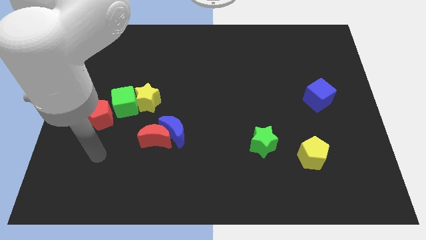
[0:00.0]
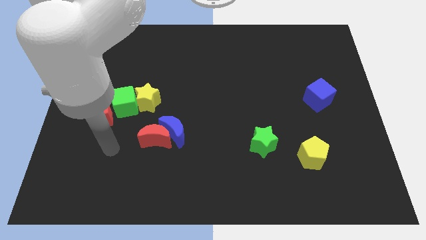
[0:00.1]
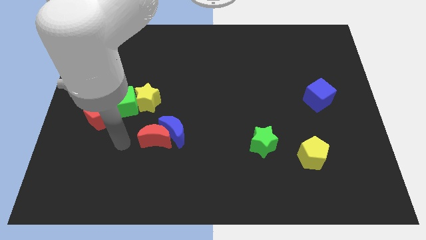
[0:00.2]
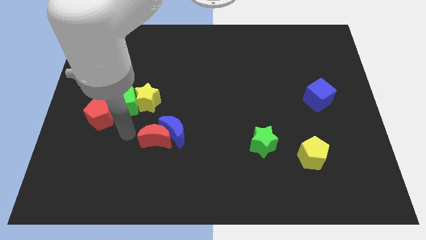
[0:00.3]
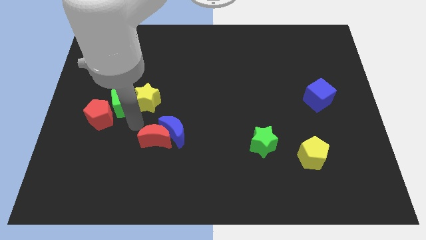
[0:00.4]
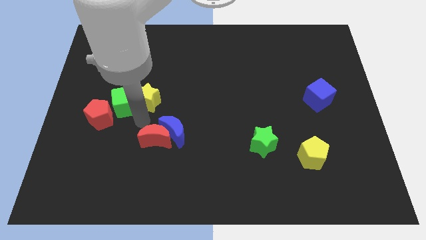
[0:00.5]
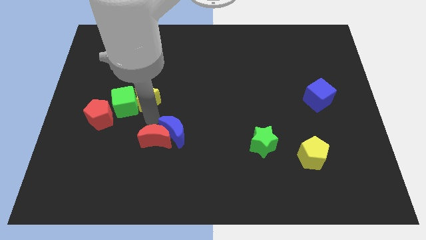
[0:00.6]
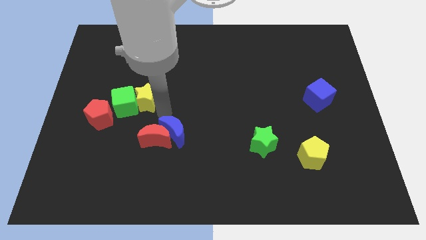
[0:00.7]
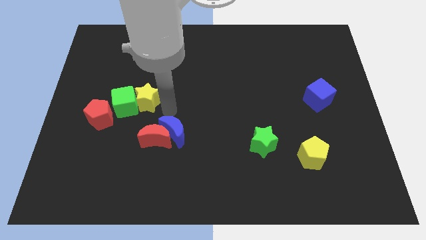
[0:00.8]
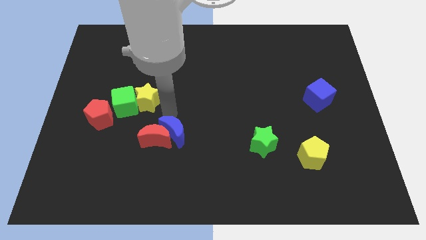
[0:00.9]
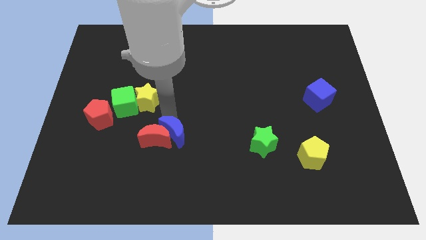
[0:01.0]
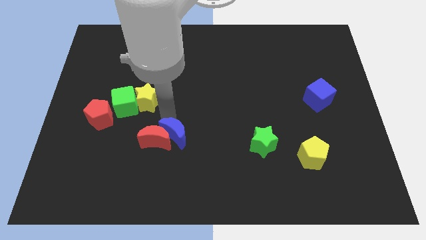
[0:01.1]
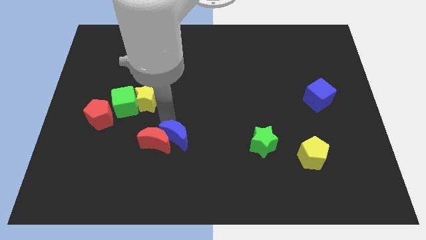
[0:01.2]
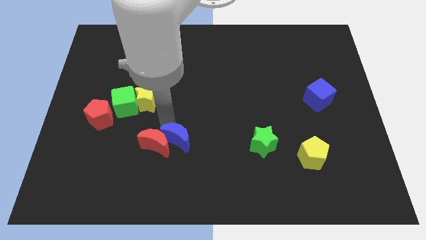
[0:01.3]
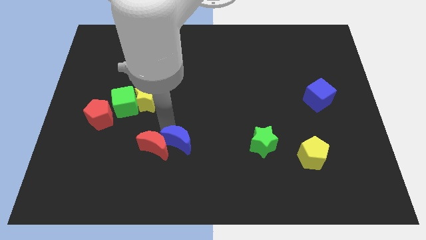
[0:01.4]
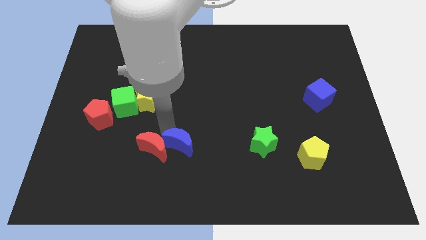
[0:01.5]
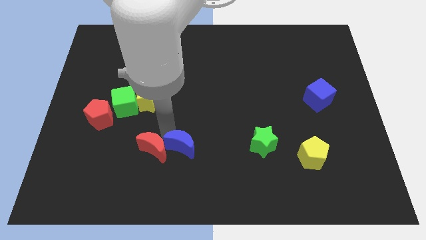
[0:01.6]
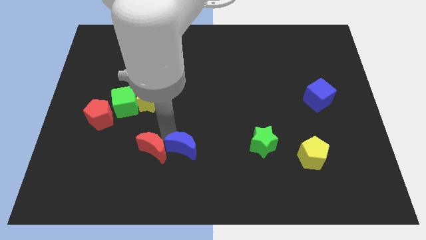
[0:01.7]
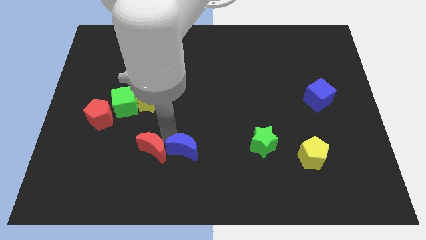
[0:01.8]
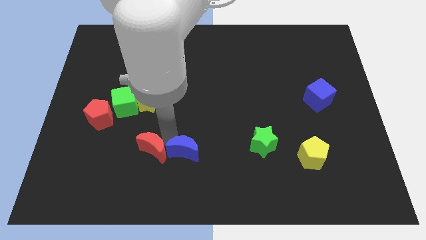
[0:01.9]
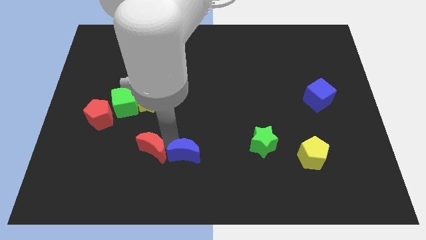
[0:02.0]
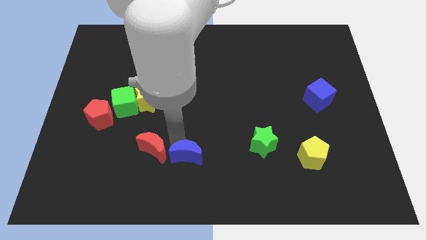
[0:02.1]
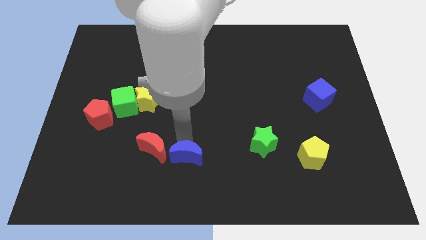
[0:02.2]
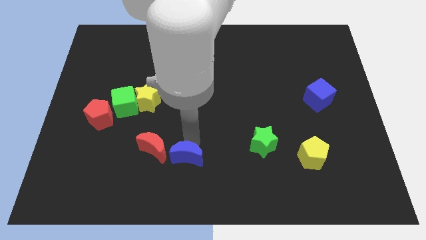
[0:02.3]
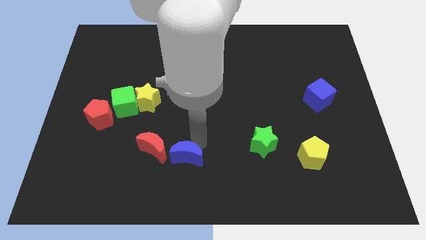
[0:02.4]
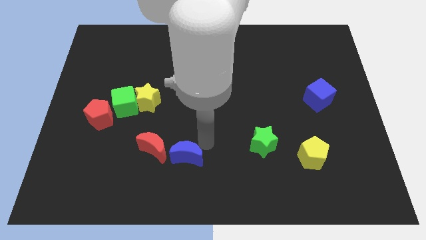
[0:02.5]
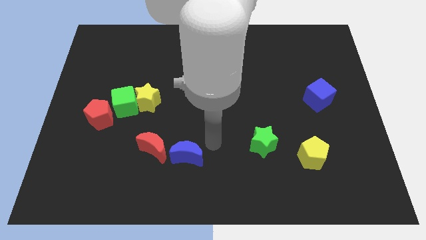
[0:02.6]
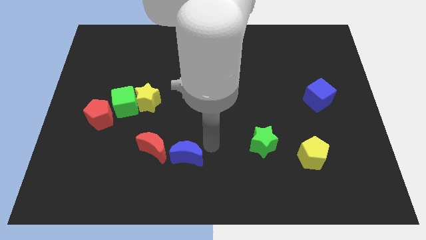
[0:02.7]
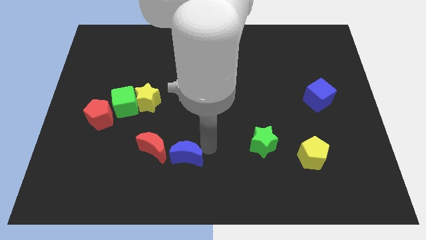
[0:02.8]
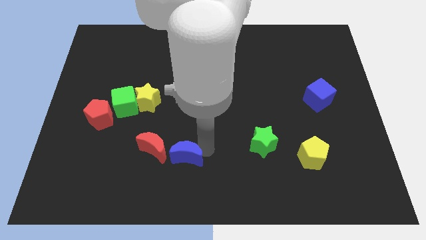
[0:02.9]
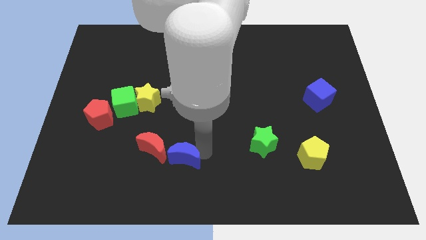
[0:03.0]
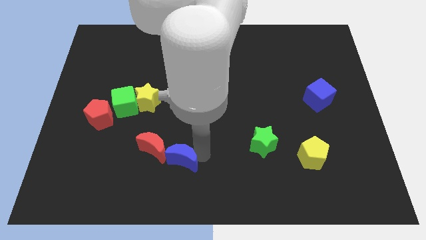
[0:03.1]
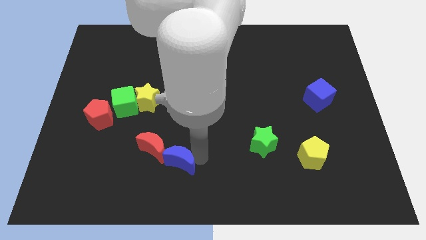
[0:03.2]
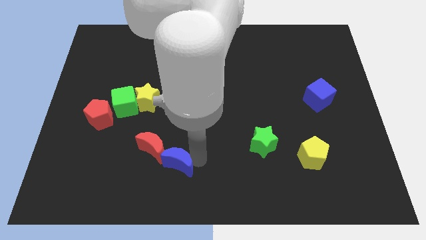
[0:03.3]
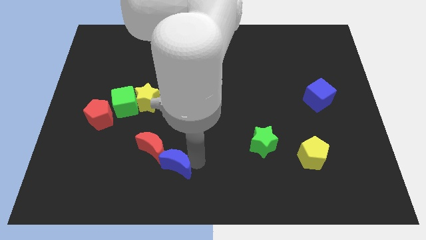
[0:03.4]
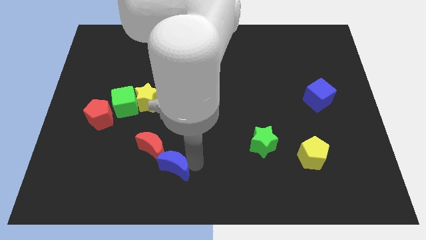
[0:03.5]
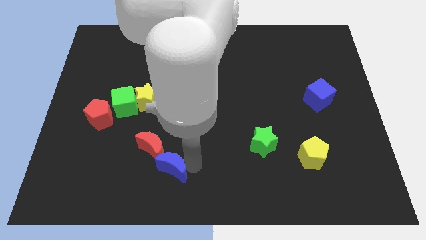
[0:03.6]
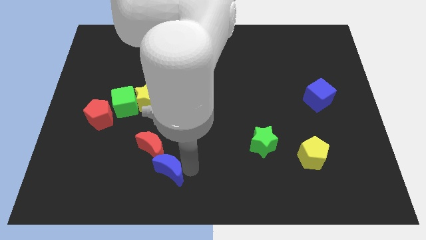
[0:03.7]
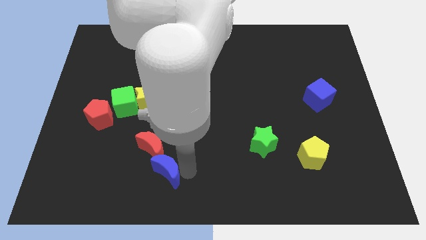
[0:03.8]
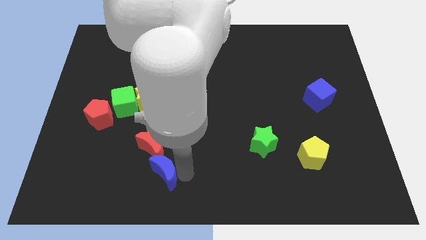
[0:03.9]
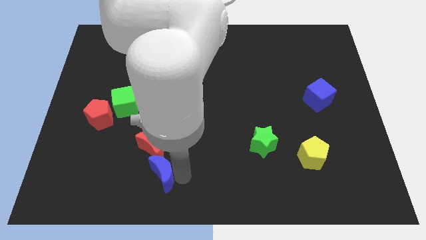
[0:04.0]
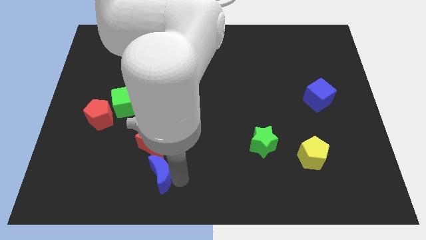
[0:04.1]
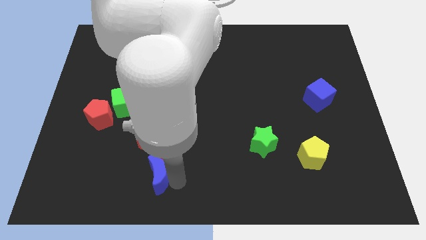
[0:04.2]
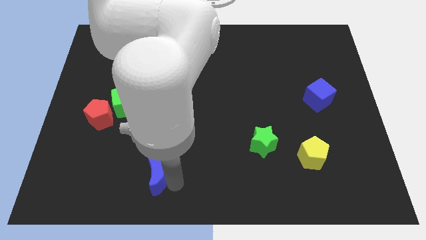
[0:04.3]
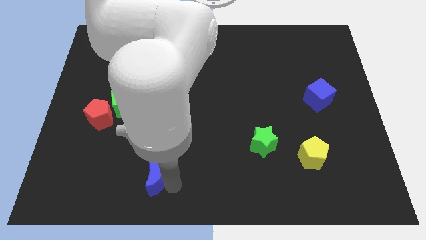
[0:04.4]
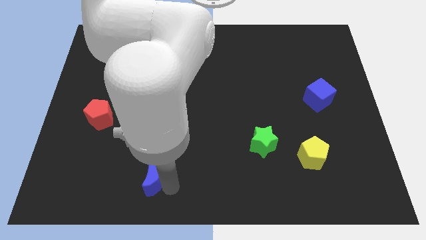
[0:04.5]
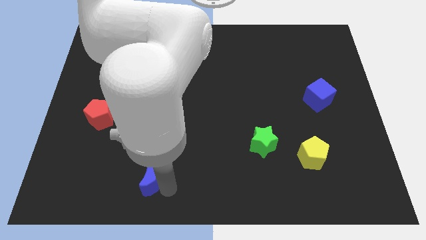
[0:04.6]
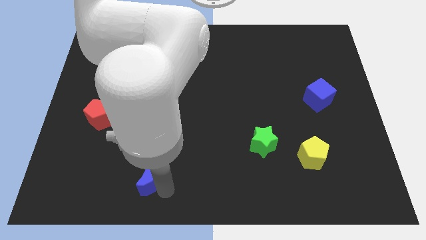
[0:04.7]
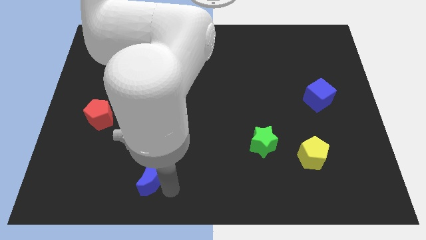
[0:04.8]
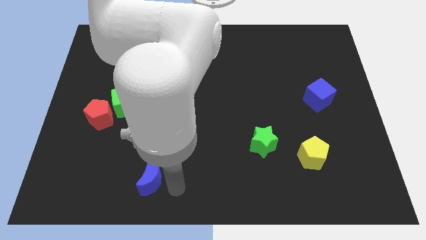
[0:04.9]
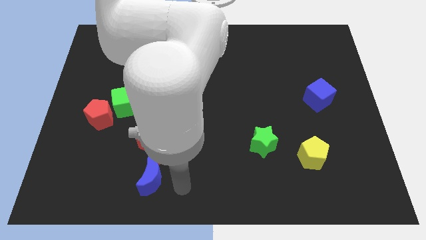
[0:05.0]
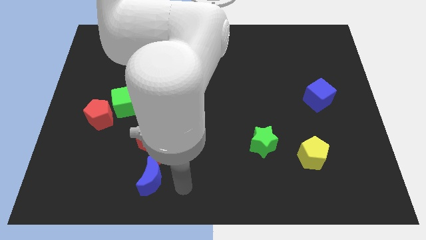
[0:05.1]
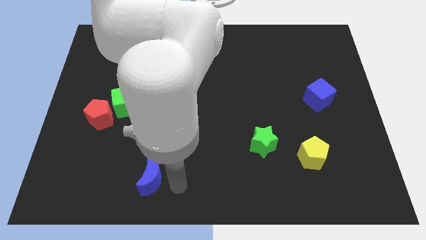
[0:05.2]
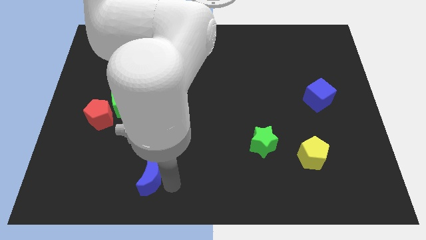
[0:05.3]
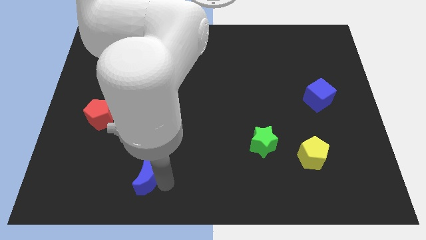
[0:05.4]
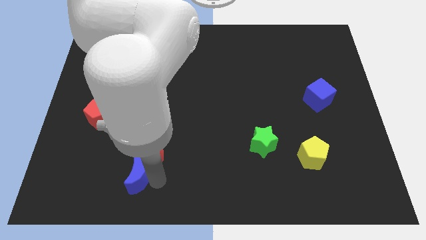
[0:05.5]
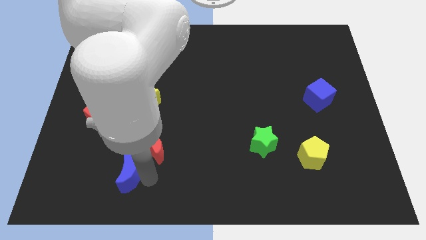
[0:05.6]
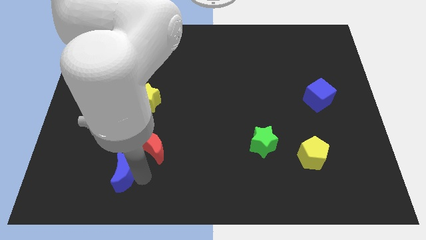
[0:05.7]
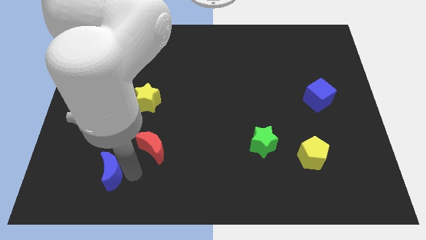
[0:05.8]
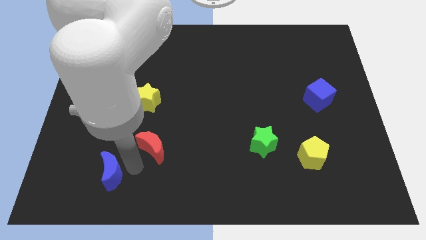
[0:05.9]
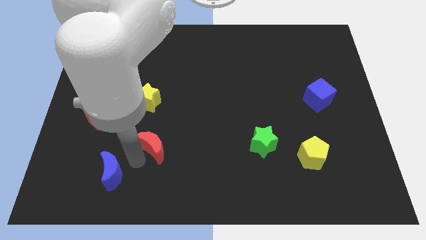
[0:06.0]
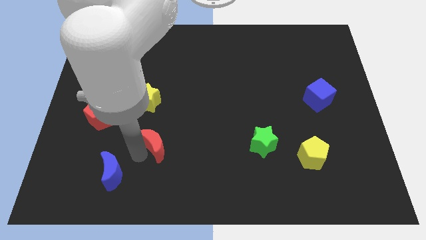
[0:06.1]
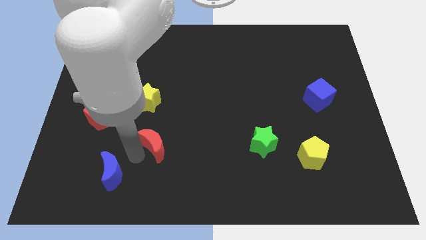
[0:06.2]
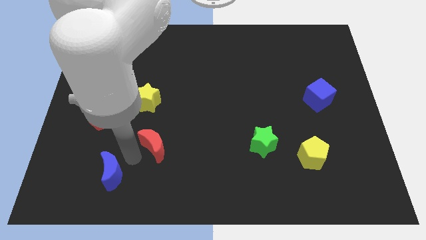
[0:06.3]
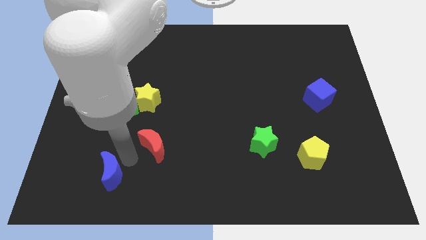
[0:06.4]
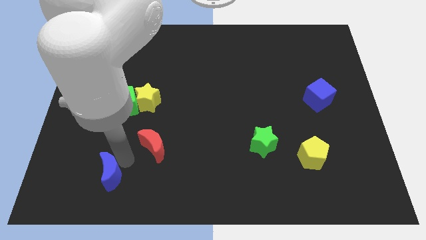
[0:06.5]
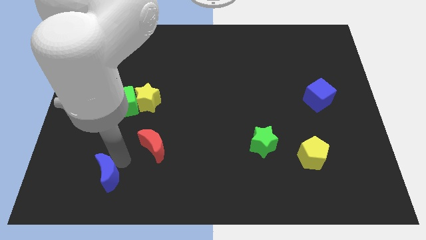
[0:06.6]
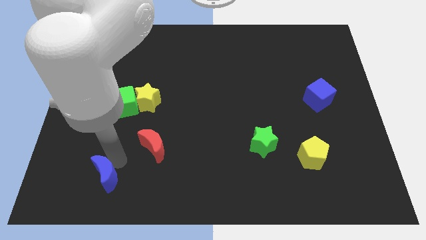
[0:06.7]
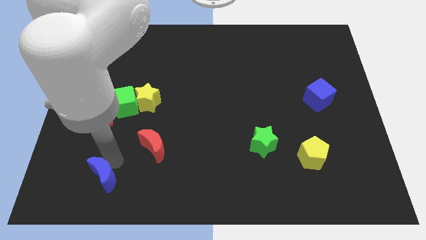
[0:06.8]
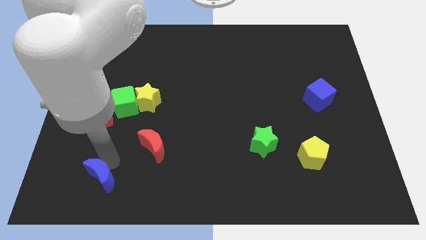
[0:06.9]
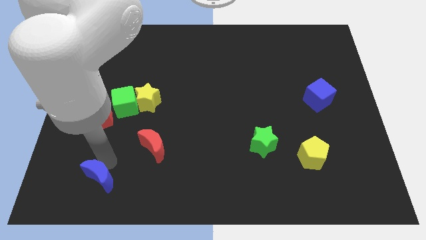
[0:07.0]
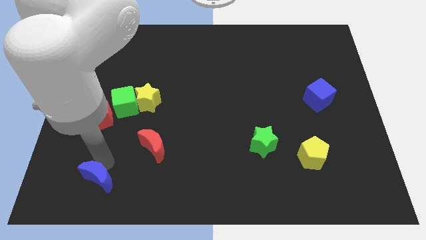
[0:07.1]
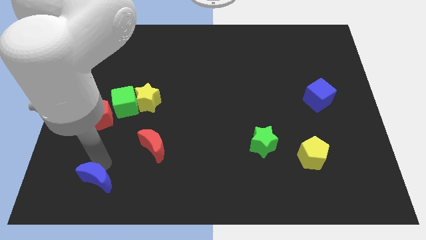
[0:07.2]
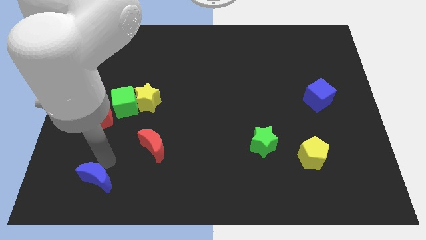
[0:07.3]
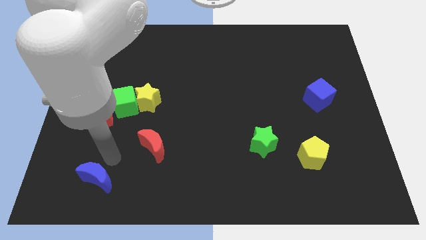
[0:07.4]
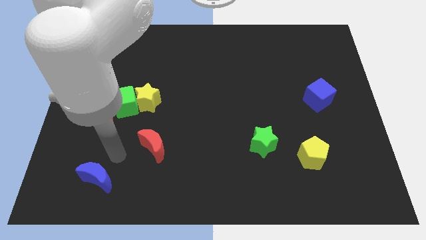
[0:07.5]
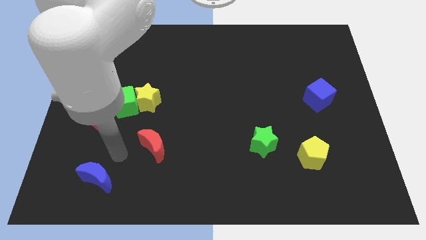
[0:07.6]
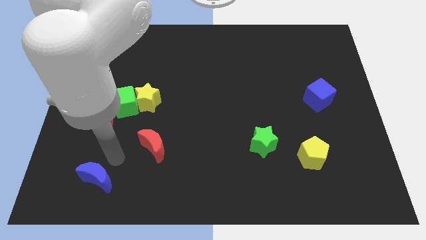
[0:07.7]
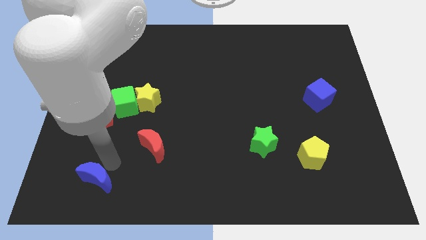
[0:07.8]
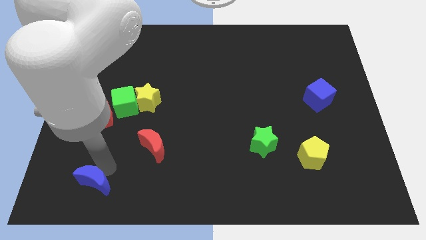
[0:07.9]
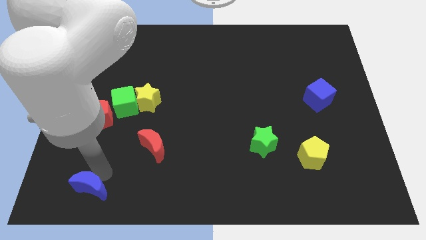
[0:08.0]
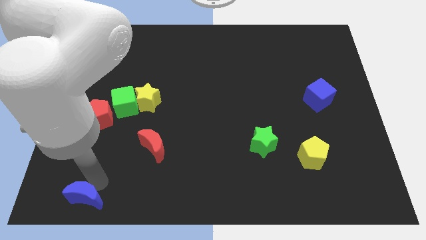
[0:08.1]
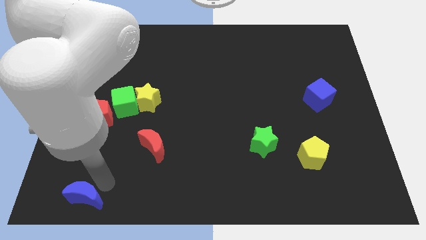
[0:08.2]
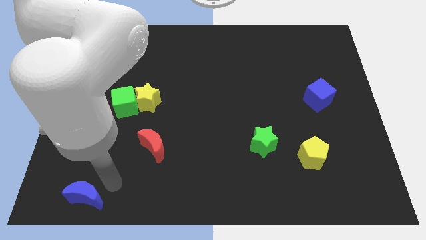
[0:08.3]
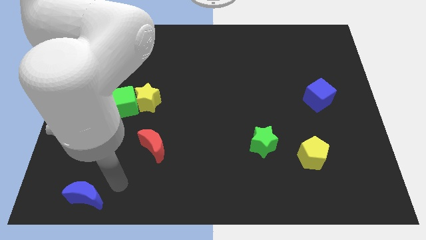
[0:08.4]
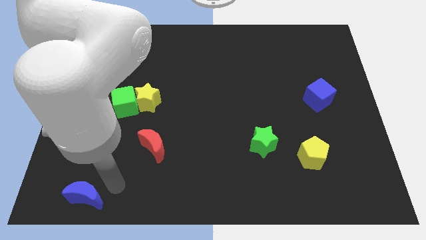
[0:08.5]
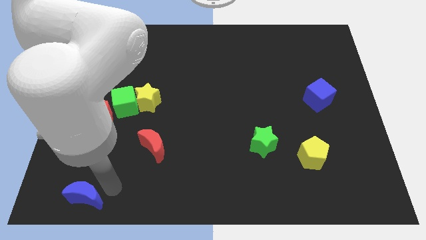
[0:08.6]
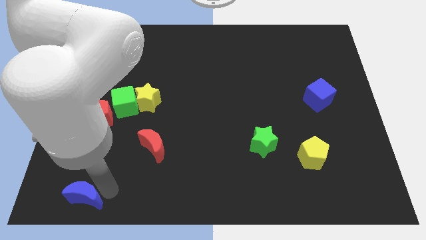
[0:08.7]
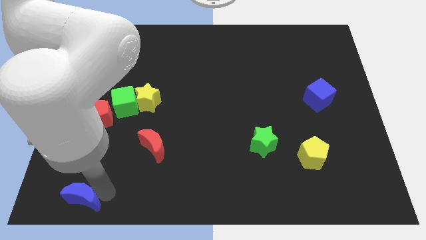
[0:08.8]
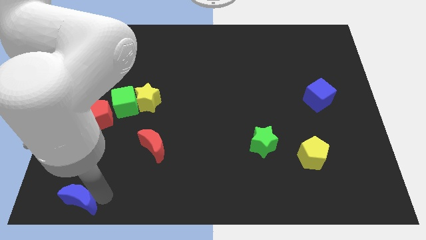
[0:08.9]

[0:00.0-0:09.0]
slide the blue moon to the lower left corner
